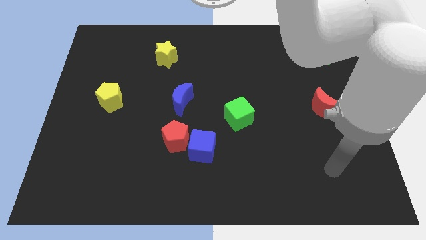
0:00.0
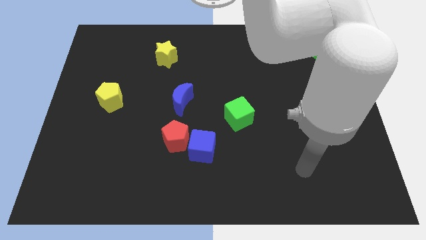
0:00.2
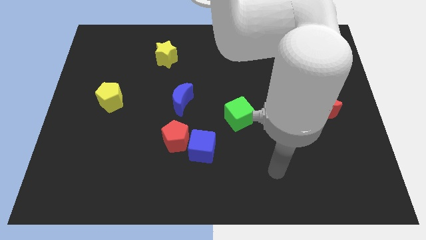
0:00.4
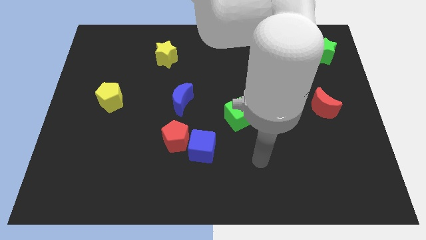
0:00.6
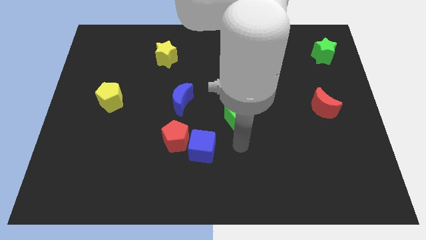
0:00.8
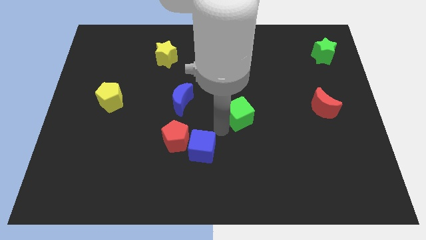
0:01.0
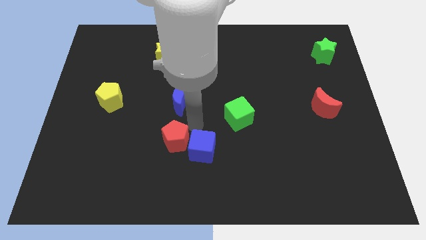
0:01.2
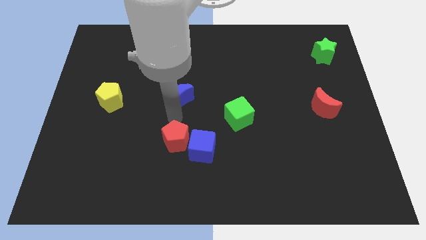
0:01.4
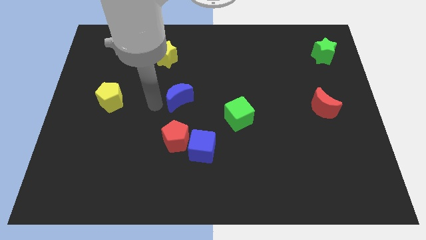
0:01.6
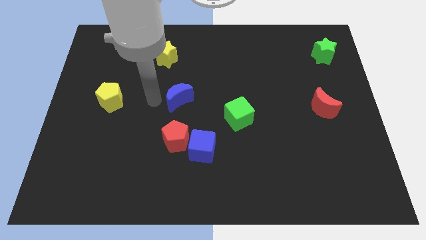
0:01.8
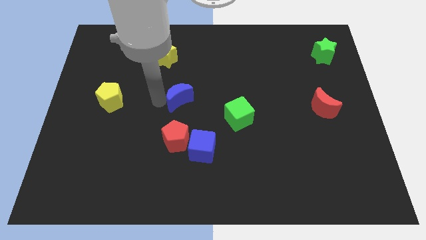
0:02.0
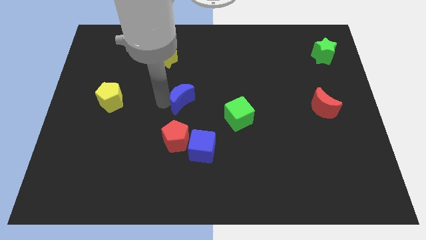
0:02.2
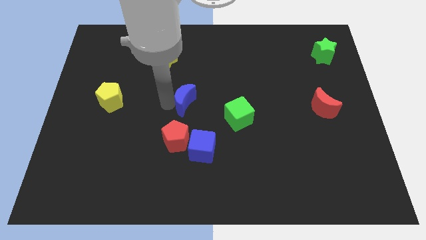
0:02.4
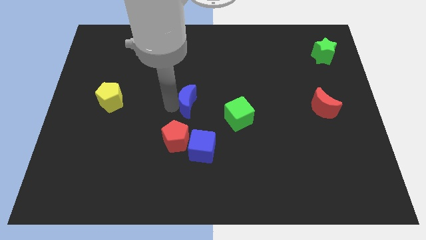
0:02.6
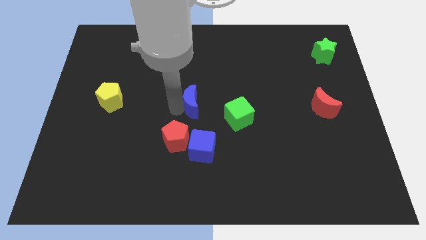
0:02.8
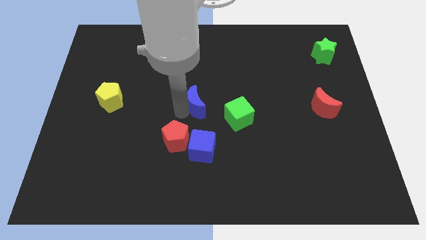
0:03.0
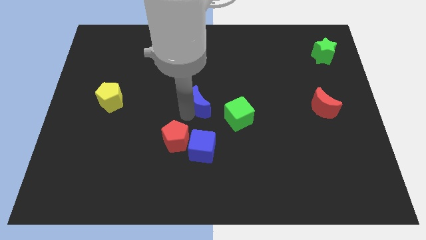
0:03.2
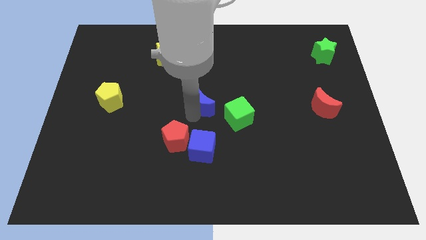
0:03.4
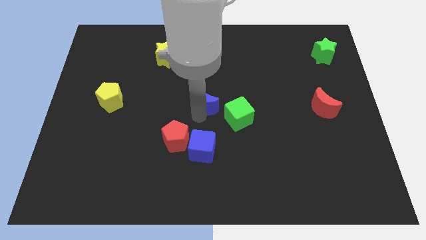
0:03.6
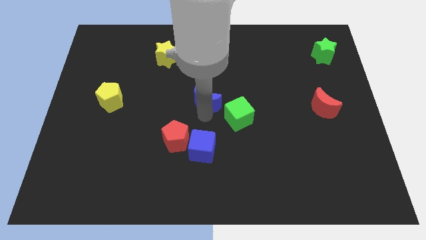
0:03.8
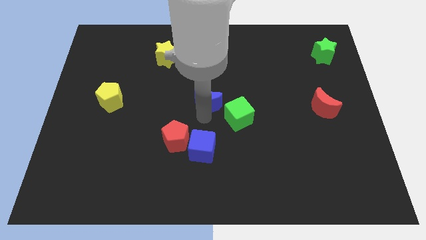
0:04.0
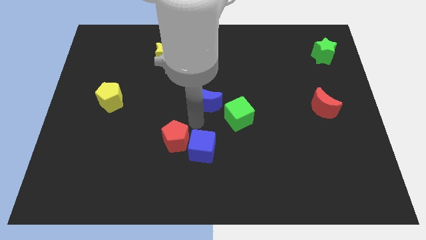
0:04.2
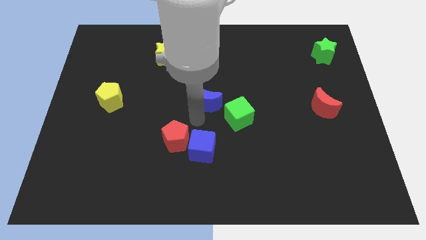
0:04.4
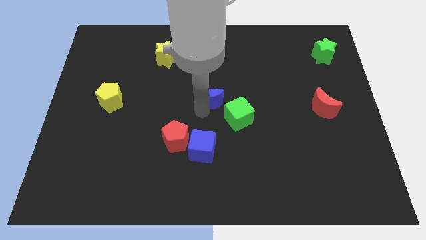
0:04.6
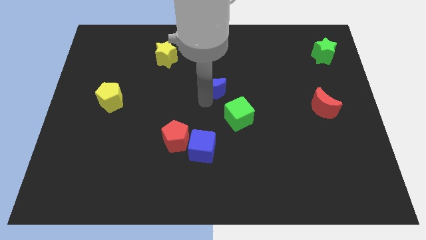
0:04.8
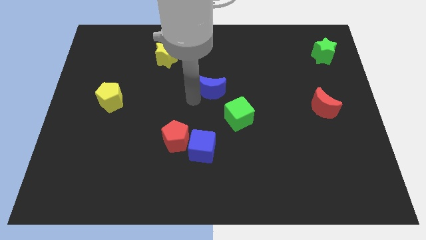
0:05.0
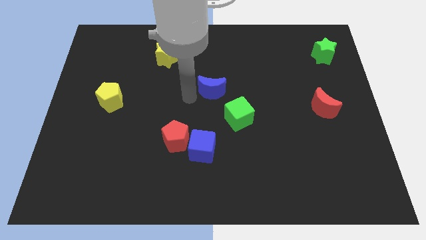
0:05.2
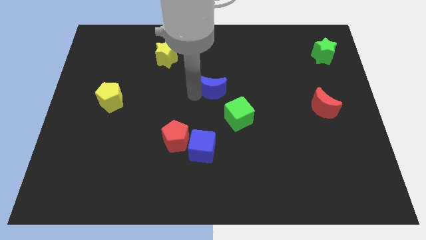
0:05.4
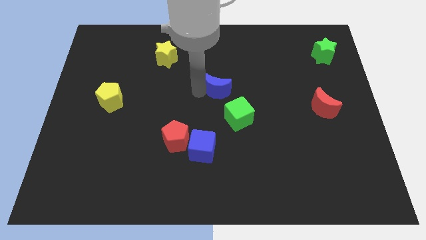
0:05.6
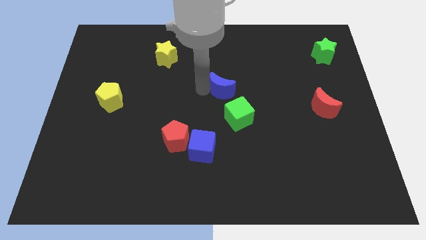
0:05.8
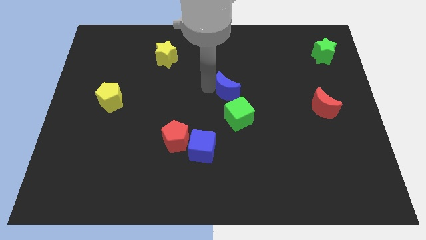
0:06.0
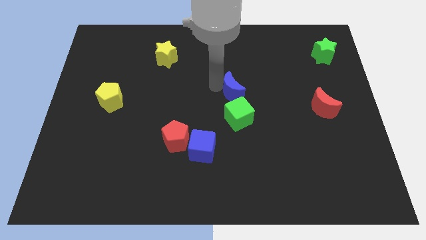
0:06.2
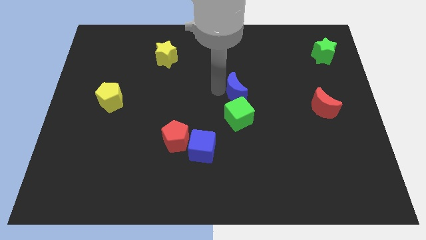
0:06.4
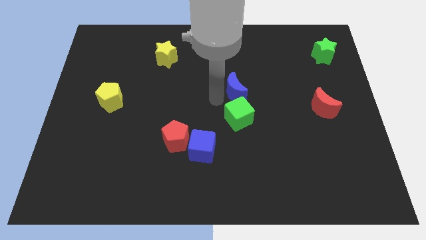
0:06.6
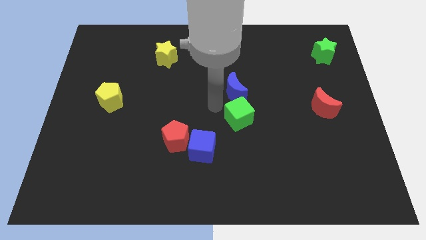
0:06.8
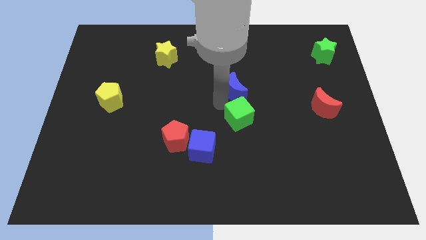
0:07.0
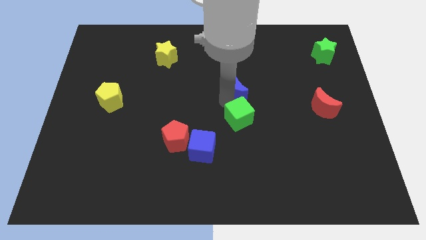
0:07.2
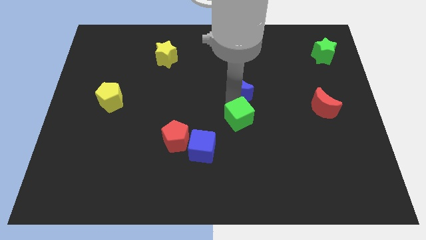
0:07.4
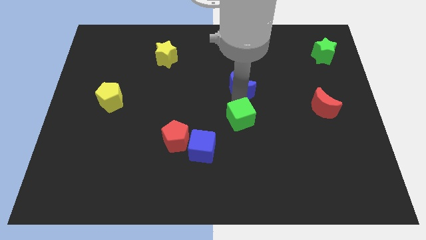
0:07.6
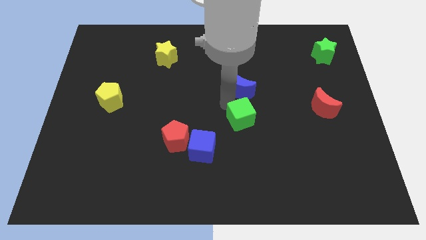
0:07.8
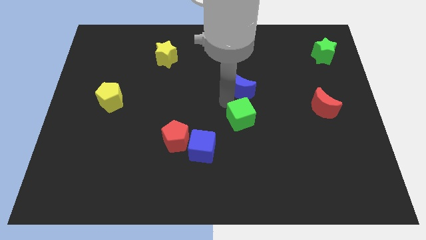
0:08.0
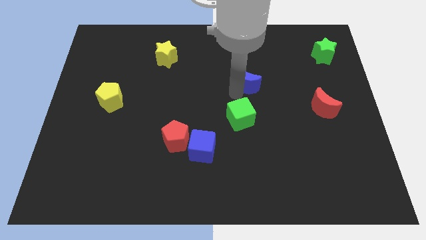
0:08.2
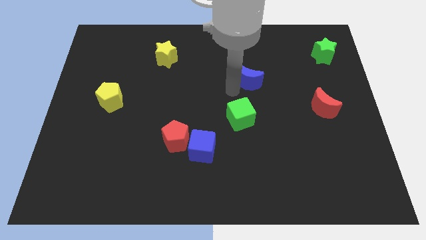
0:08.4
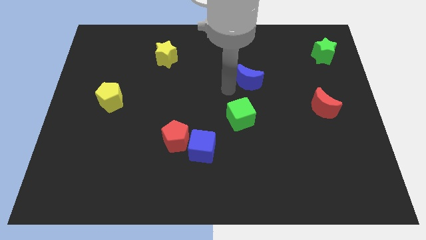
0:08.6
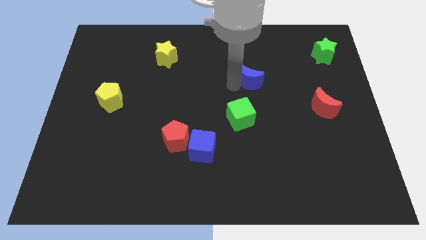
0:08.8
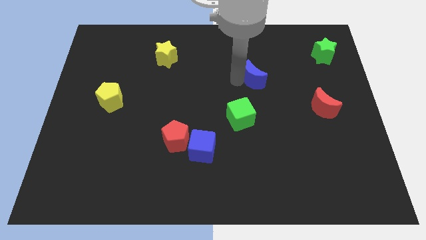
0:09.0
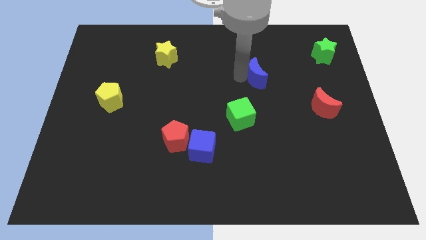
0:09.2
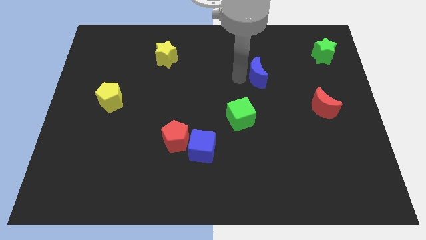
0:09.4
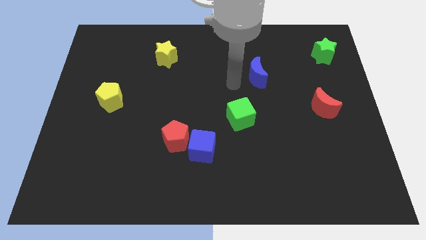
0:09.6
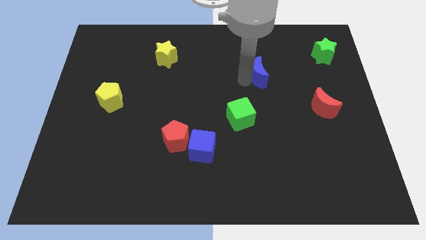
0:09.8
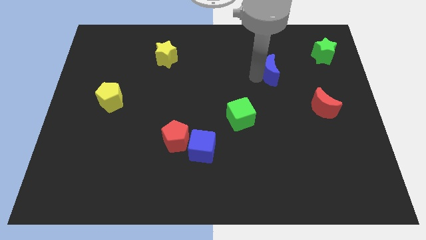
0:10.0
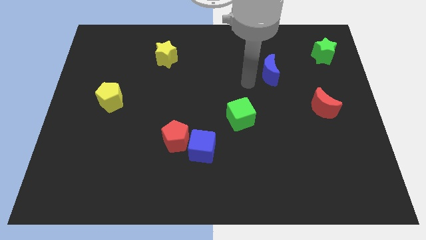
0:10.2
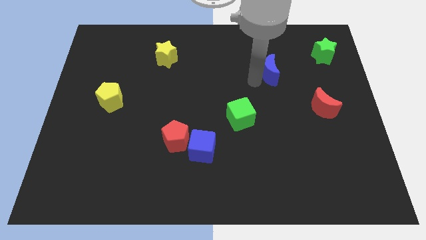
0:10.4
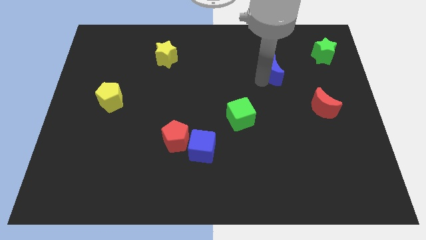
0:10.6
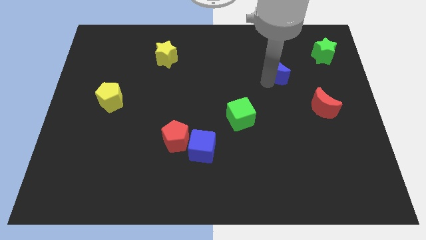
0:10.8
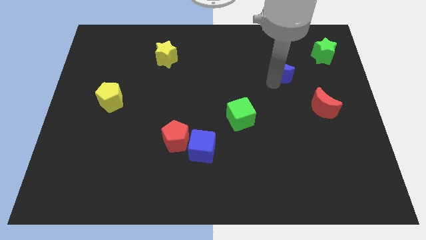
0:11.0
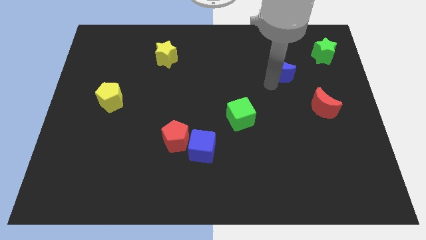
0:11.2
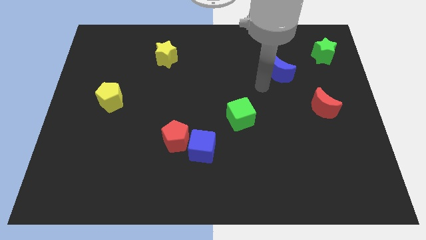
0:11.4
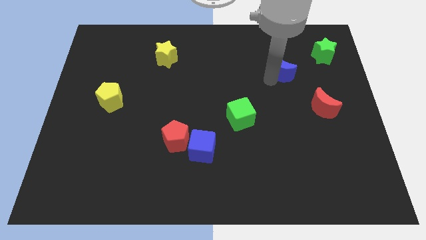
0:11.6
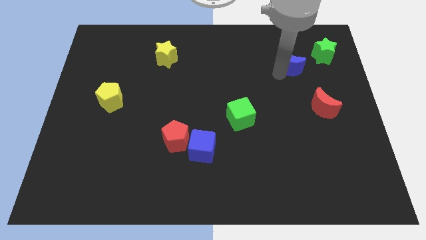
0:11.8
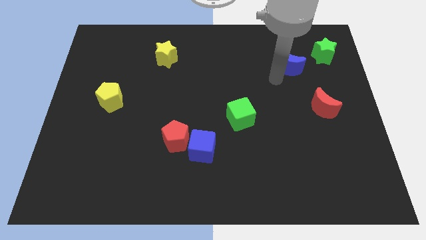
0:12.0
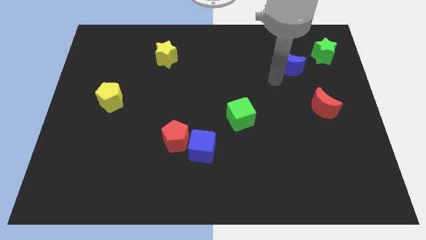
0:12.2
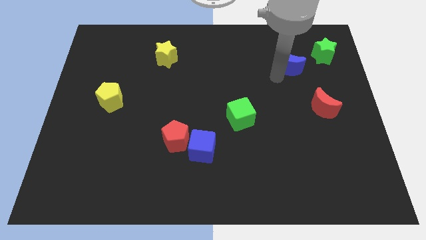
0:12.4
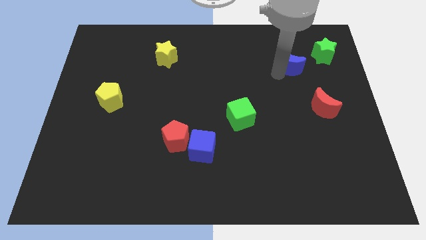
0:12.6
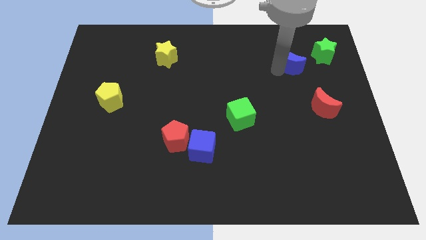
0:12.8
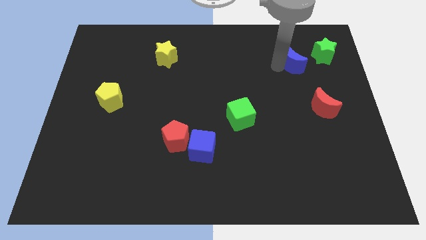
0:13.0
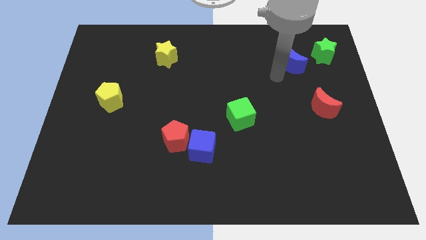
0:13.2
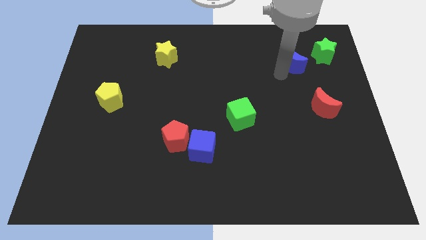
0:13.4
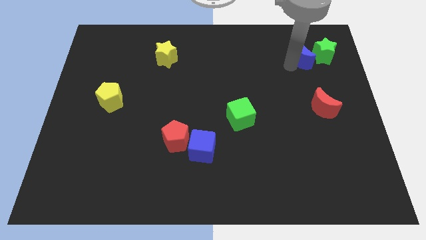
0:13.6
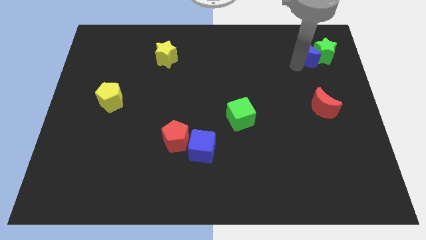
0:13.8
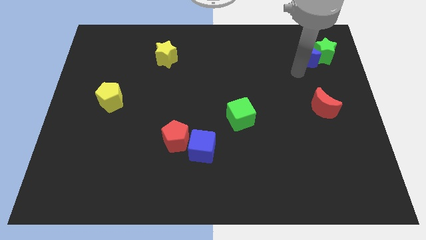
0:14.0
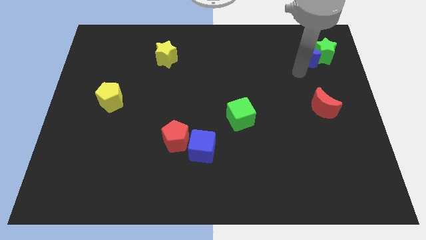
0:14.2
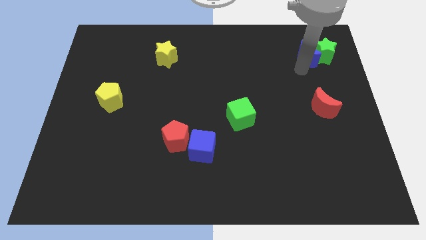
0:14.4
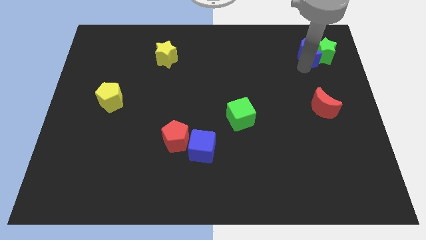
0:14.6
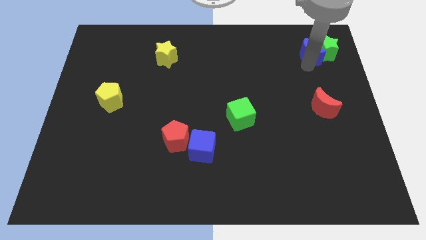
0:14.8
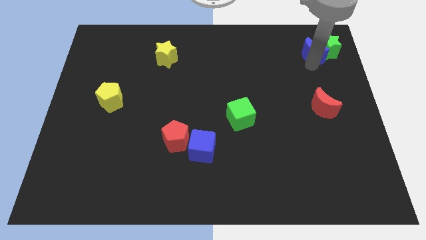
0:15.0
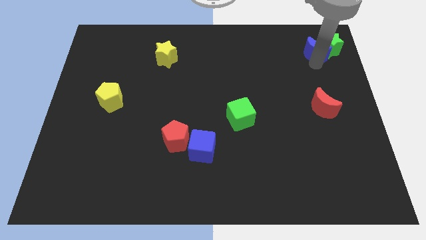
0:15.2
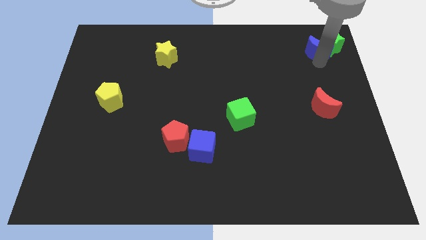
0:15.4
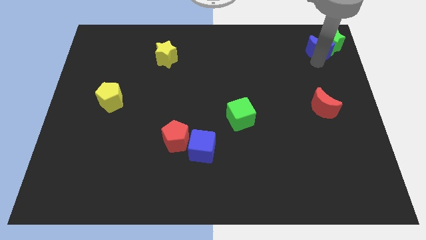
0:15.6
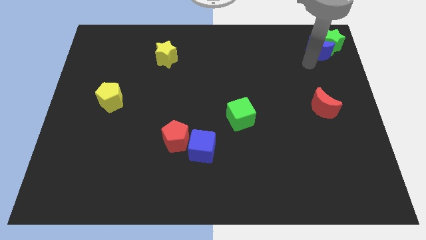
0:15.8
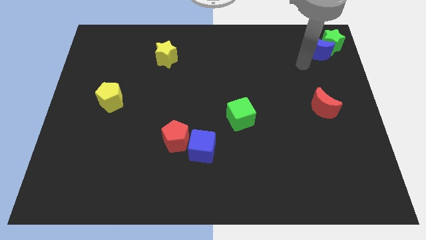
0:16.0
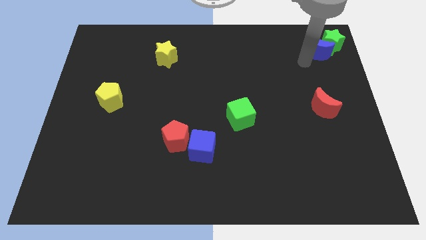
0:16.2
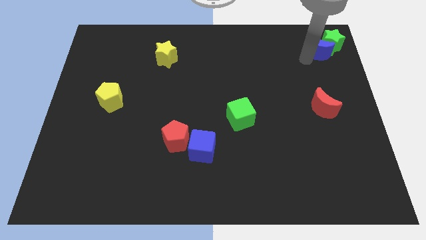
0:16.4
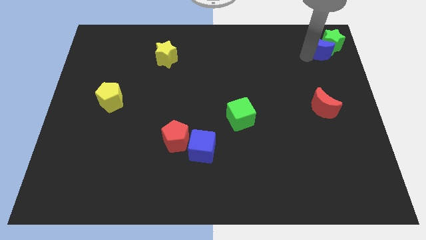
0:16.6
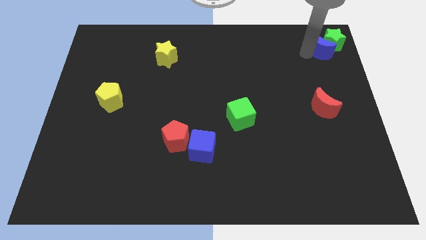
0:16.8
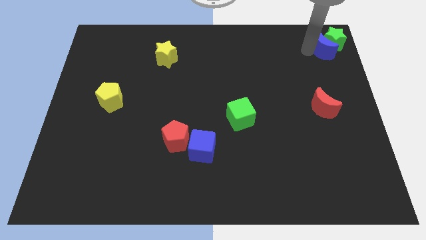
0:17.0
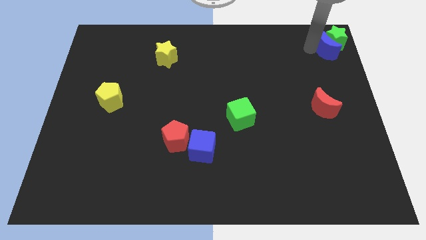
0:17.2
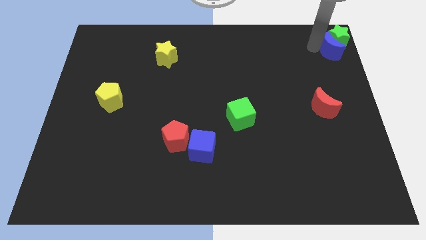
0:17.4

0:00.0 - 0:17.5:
put the blue moon to the top right
